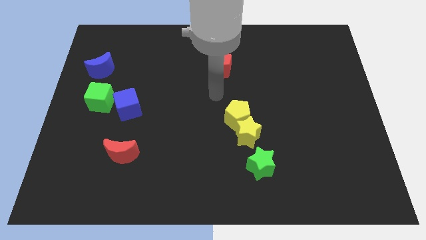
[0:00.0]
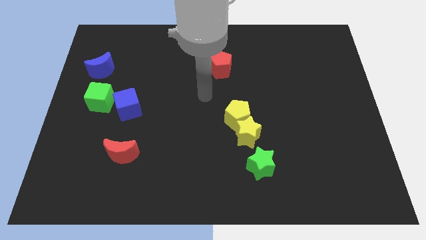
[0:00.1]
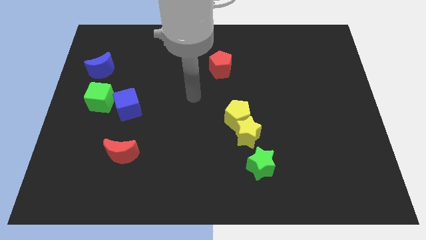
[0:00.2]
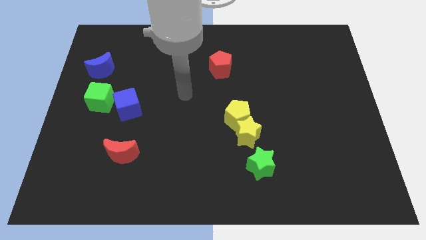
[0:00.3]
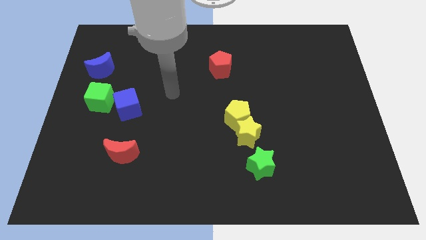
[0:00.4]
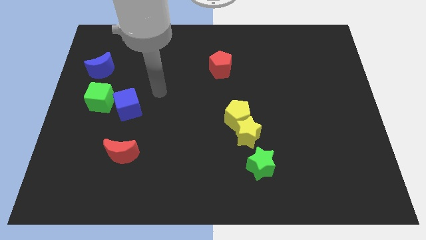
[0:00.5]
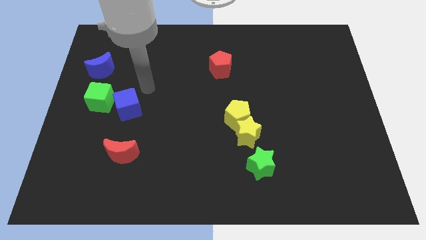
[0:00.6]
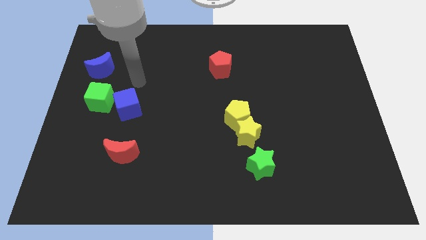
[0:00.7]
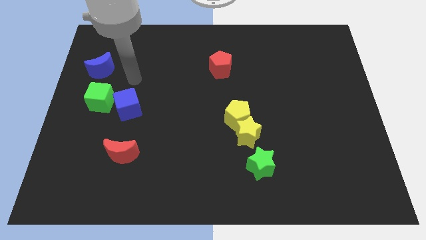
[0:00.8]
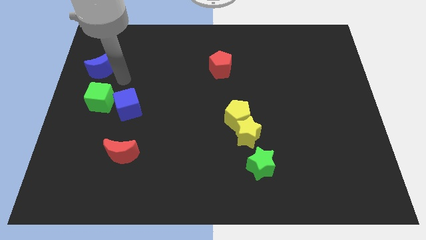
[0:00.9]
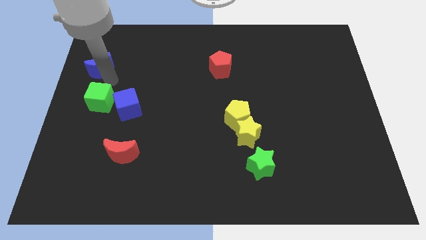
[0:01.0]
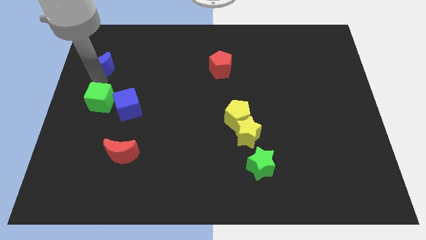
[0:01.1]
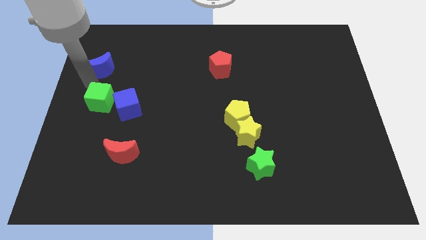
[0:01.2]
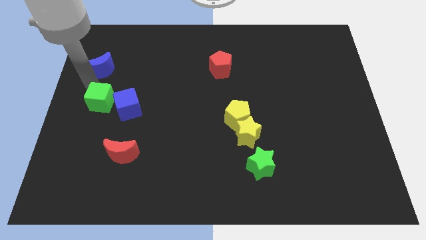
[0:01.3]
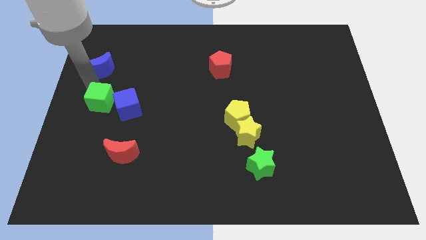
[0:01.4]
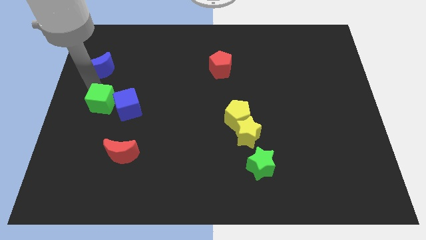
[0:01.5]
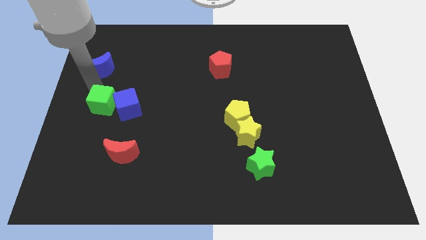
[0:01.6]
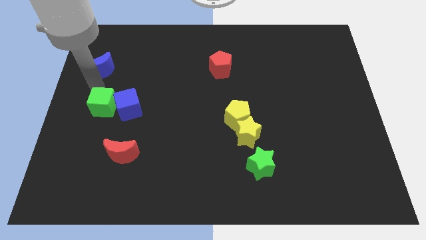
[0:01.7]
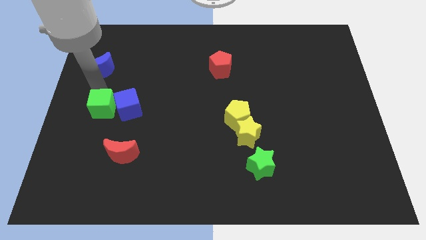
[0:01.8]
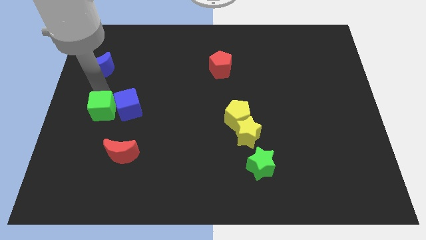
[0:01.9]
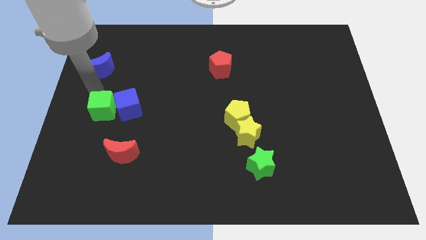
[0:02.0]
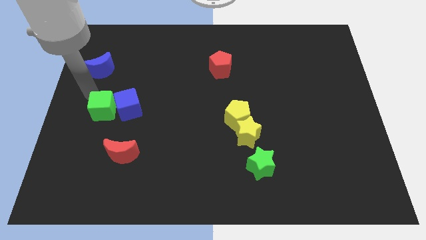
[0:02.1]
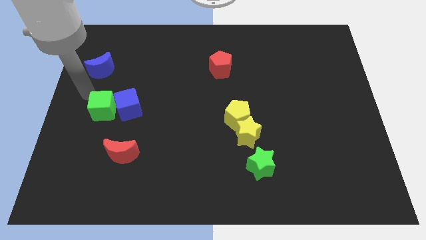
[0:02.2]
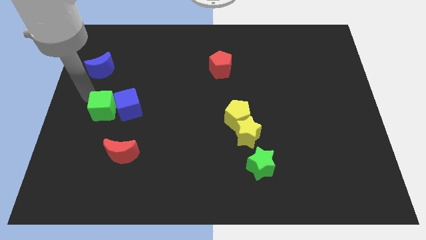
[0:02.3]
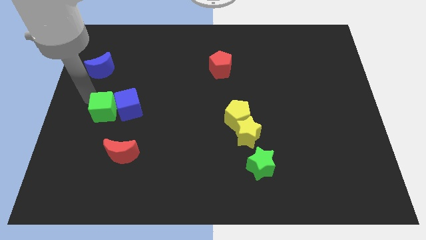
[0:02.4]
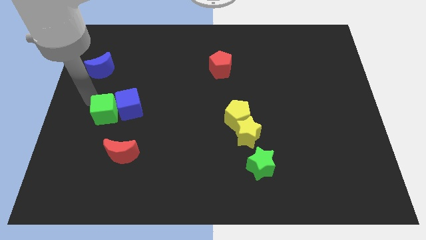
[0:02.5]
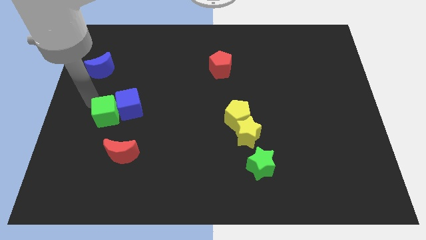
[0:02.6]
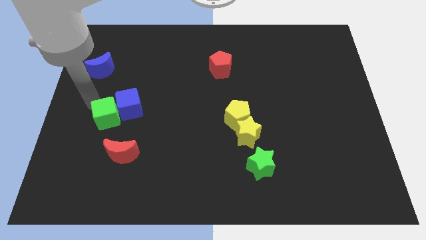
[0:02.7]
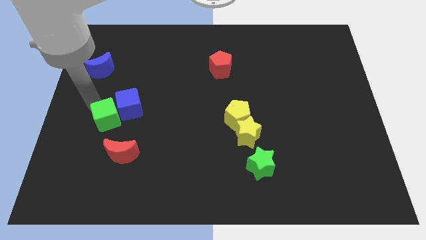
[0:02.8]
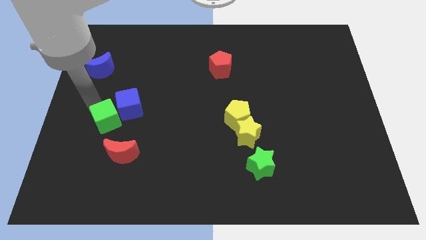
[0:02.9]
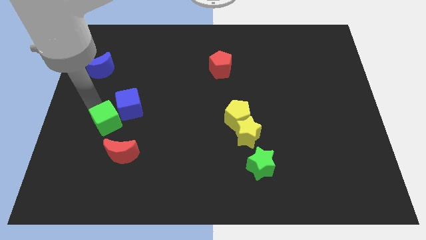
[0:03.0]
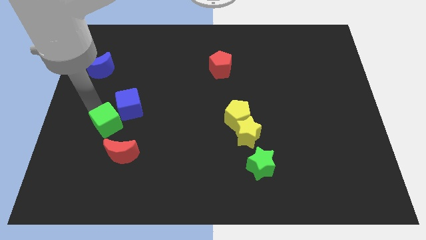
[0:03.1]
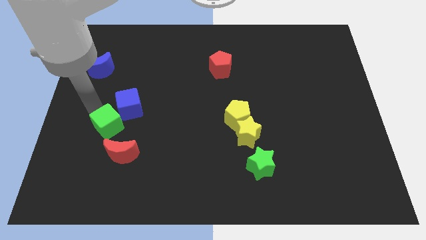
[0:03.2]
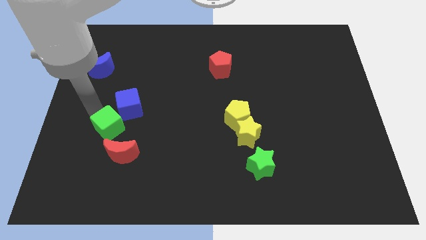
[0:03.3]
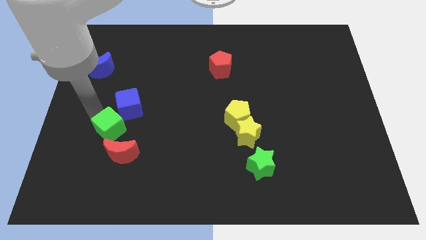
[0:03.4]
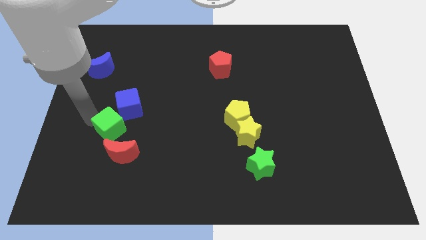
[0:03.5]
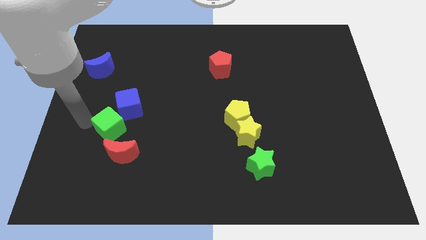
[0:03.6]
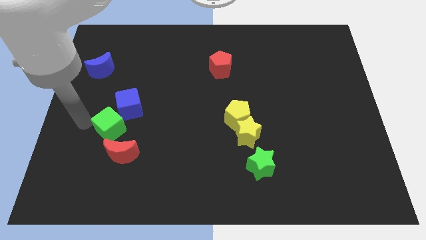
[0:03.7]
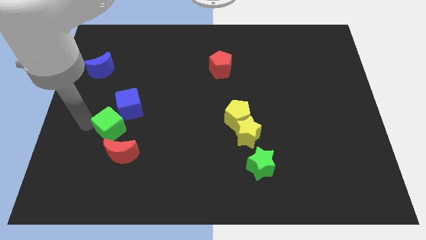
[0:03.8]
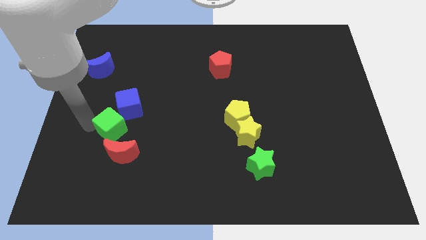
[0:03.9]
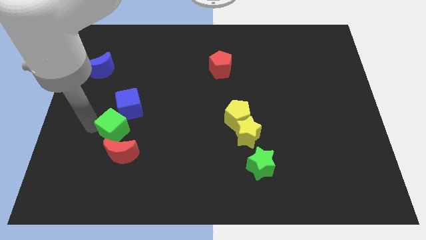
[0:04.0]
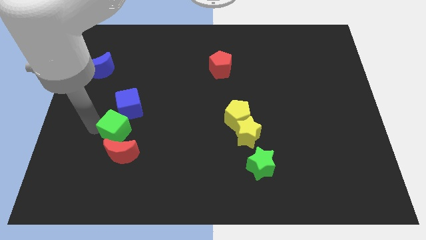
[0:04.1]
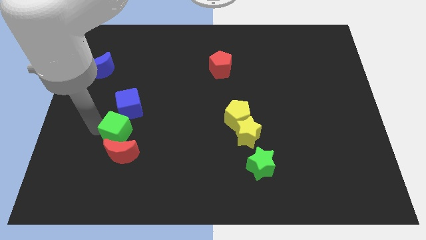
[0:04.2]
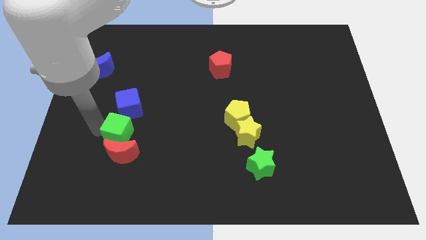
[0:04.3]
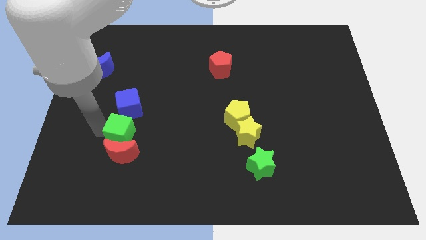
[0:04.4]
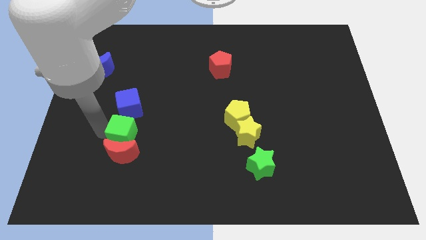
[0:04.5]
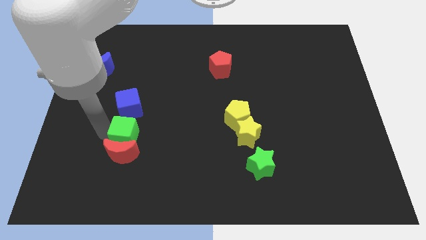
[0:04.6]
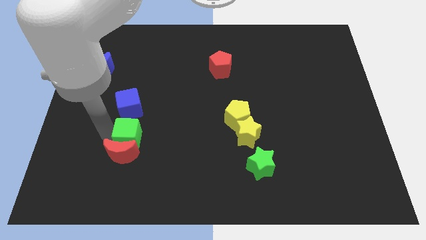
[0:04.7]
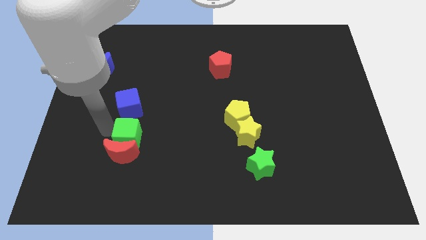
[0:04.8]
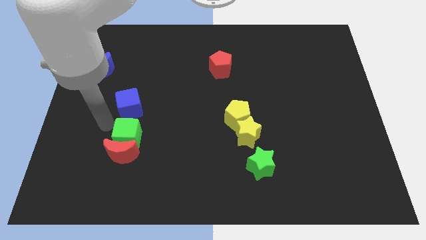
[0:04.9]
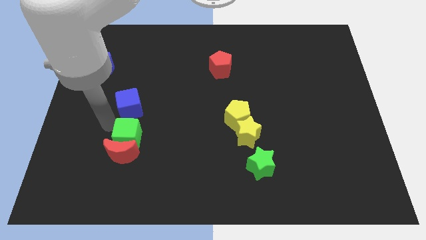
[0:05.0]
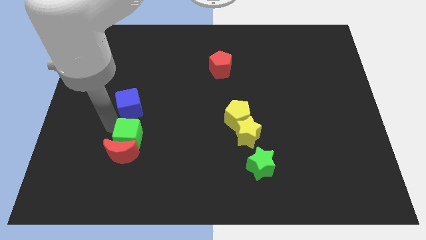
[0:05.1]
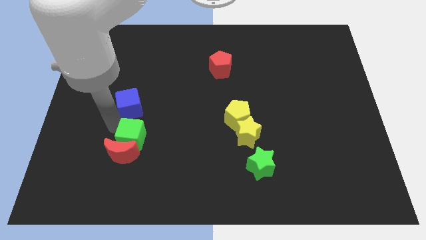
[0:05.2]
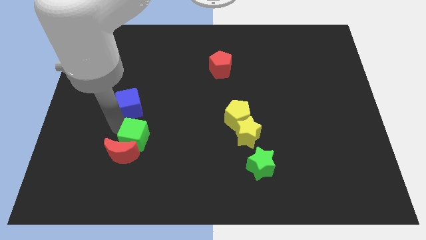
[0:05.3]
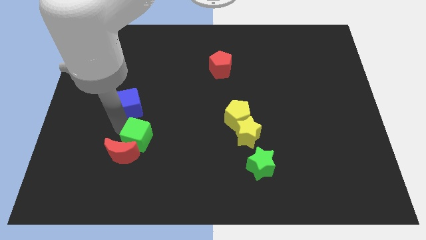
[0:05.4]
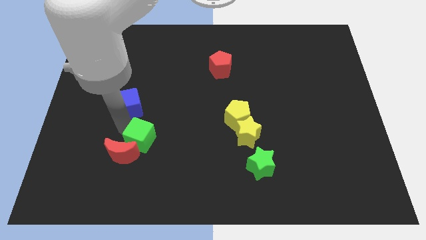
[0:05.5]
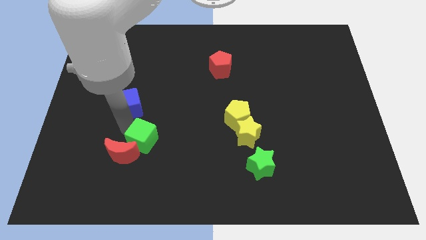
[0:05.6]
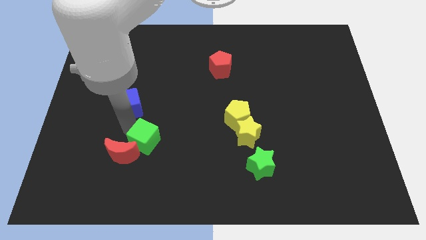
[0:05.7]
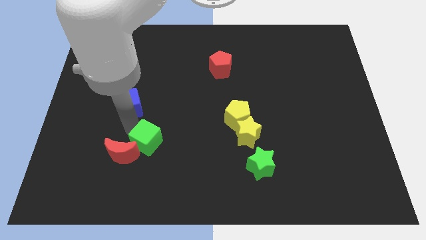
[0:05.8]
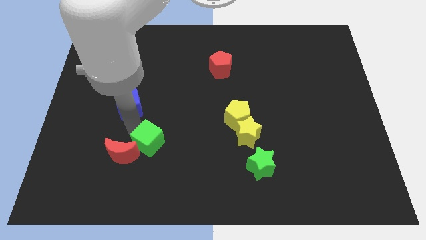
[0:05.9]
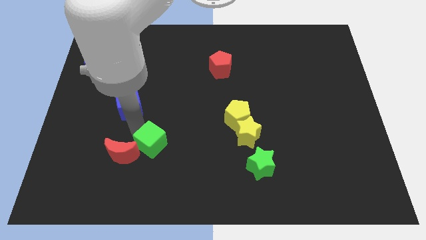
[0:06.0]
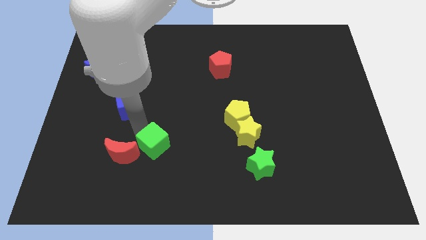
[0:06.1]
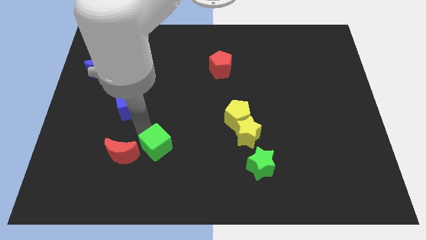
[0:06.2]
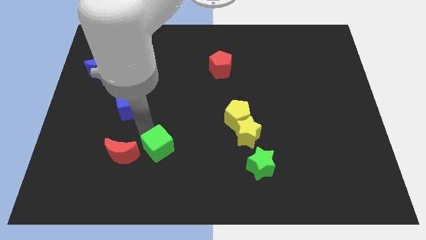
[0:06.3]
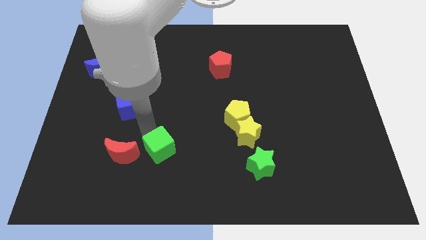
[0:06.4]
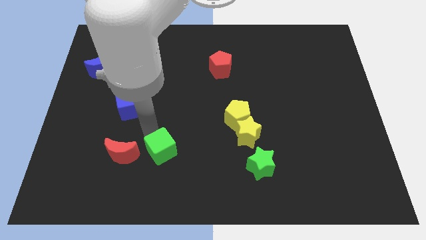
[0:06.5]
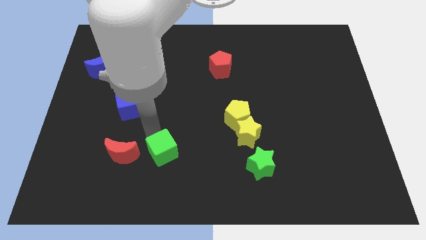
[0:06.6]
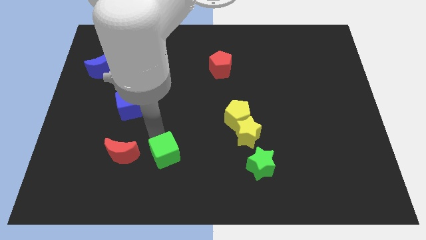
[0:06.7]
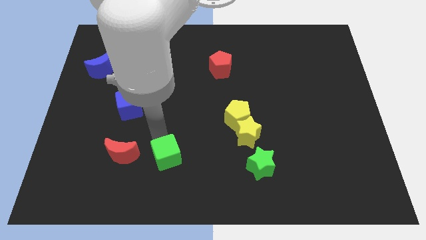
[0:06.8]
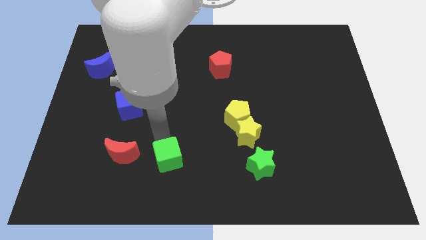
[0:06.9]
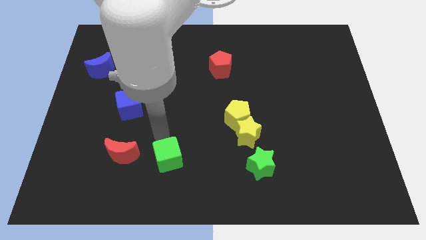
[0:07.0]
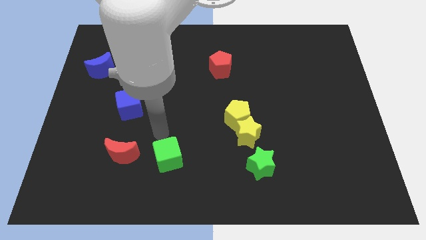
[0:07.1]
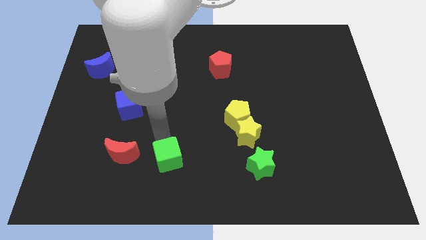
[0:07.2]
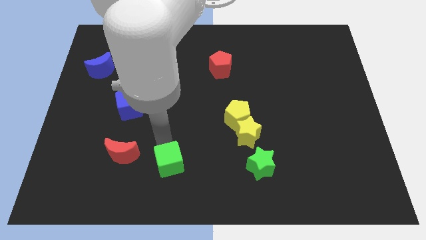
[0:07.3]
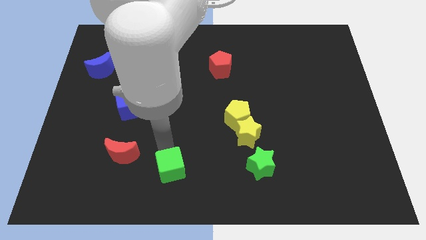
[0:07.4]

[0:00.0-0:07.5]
move the green cube to the bottom side
